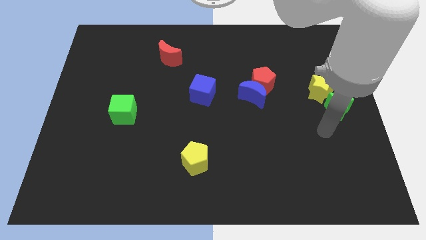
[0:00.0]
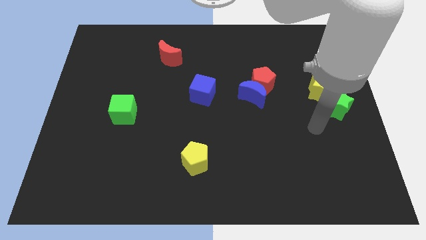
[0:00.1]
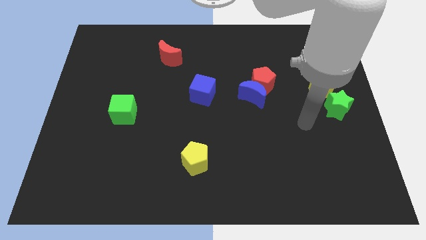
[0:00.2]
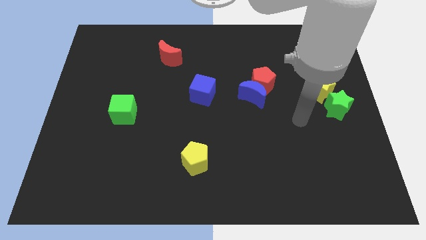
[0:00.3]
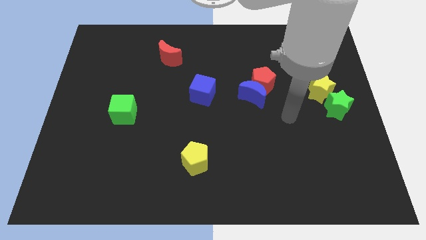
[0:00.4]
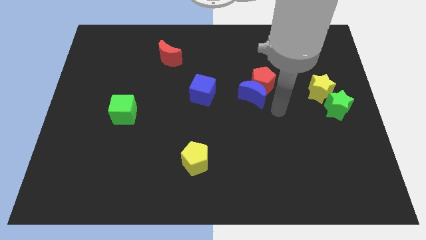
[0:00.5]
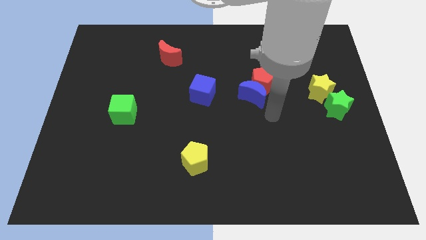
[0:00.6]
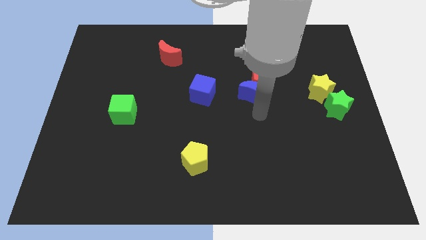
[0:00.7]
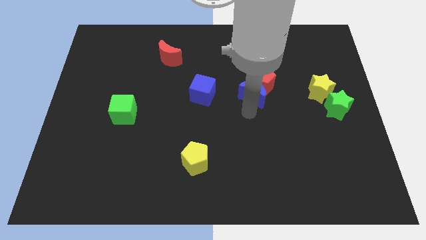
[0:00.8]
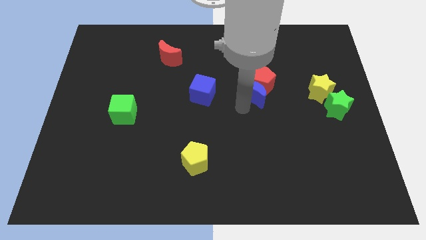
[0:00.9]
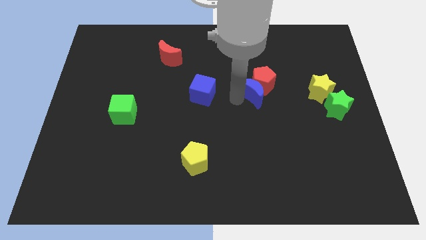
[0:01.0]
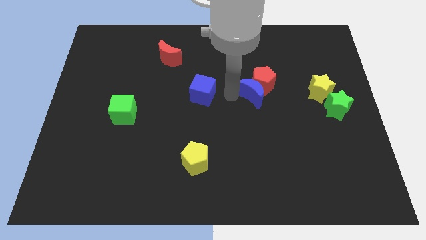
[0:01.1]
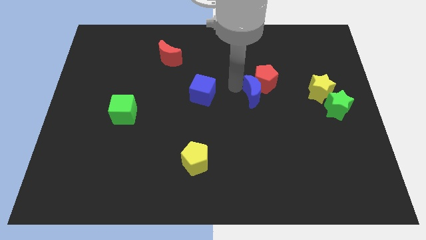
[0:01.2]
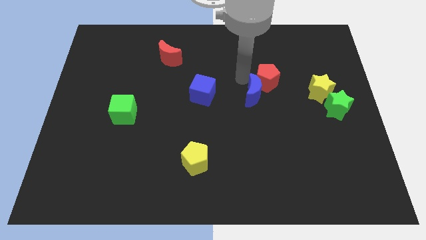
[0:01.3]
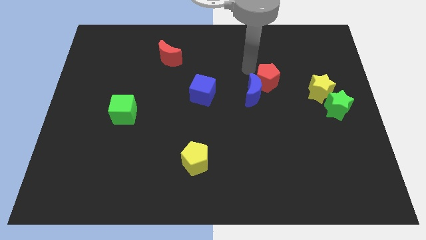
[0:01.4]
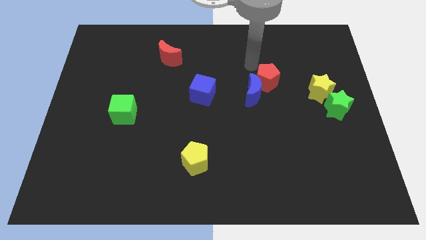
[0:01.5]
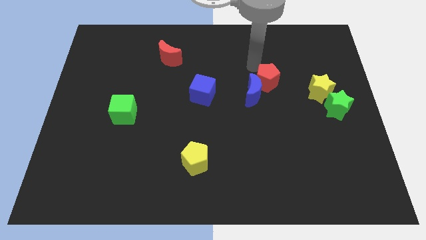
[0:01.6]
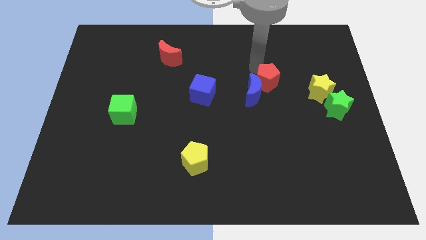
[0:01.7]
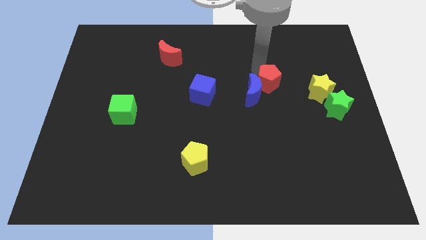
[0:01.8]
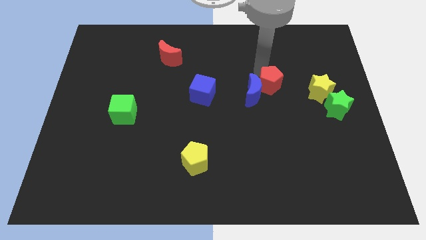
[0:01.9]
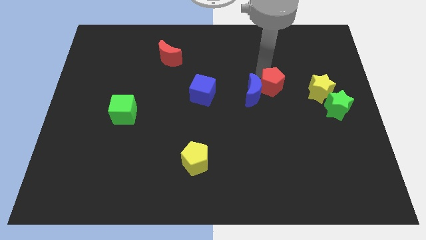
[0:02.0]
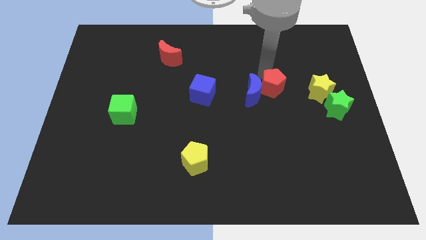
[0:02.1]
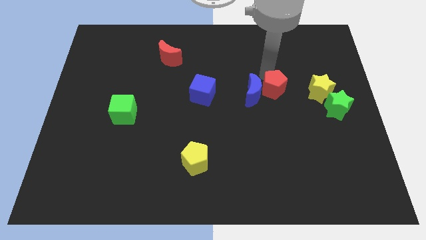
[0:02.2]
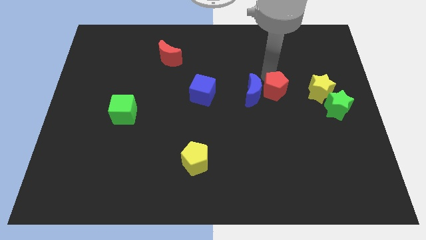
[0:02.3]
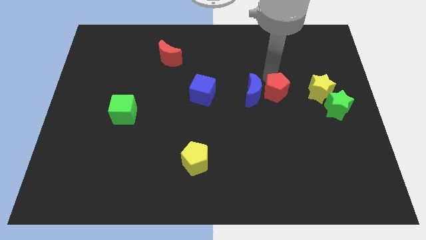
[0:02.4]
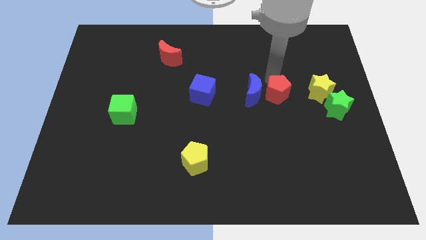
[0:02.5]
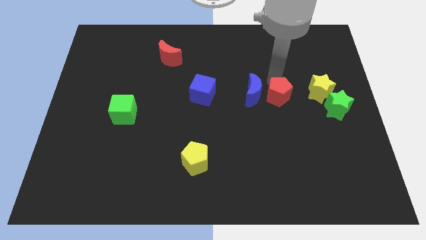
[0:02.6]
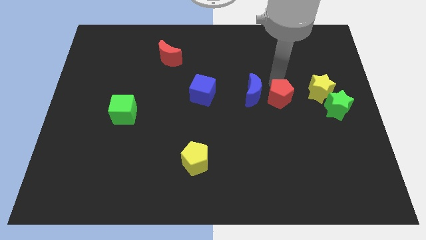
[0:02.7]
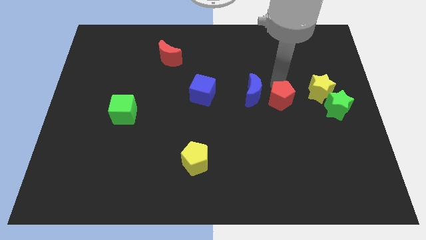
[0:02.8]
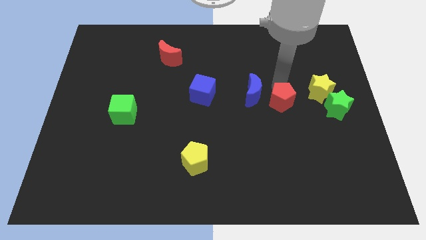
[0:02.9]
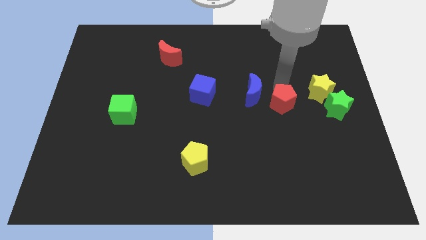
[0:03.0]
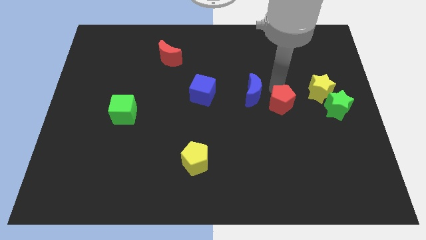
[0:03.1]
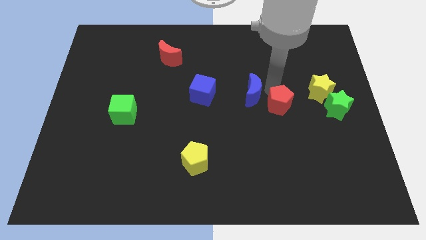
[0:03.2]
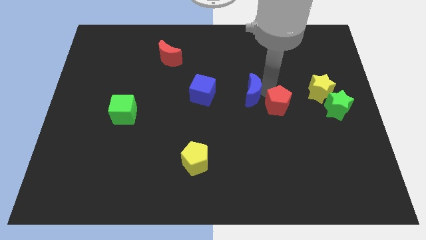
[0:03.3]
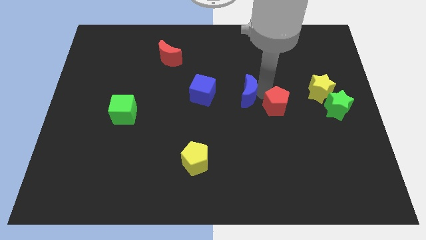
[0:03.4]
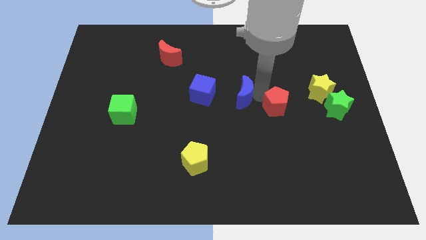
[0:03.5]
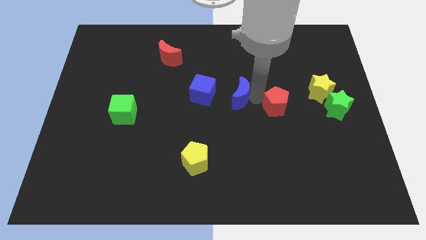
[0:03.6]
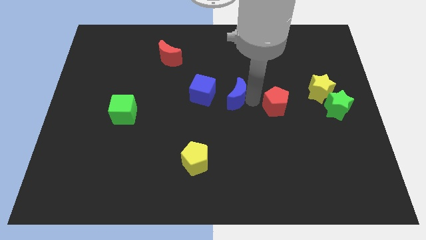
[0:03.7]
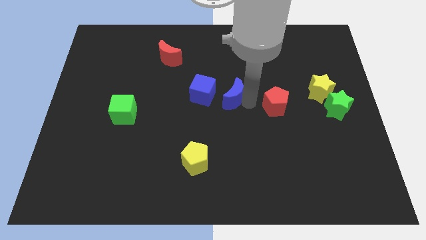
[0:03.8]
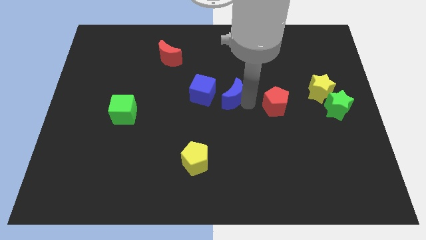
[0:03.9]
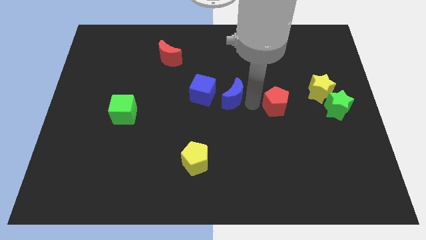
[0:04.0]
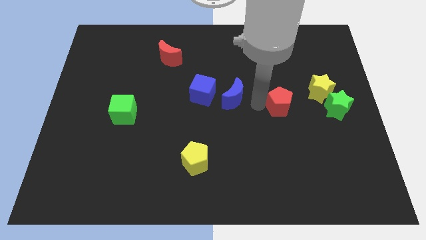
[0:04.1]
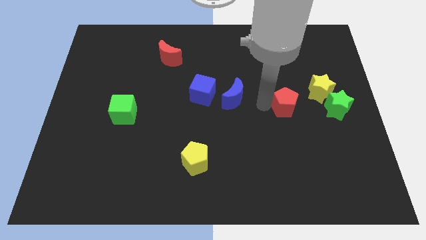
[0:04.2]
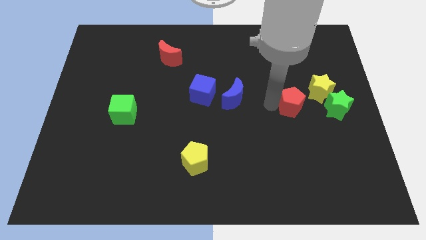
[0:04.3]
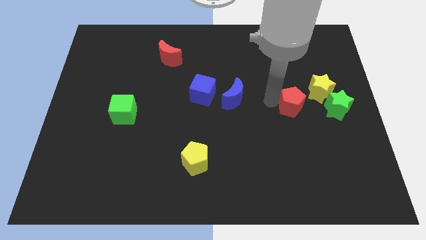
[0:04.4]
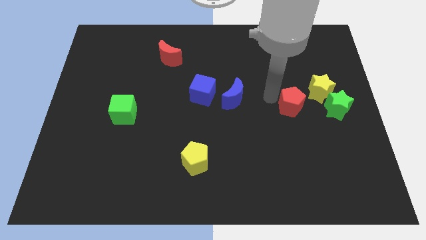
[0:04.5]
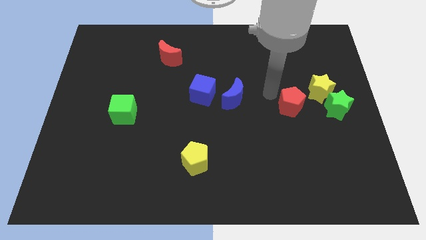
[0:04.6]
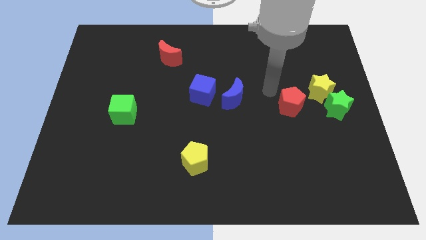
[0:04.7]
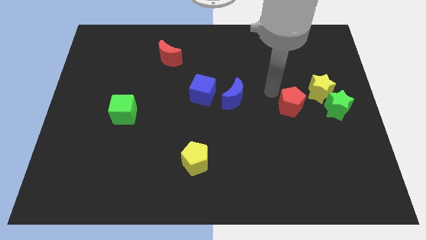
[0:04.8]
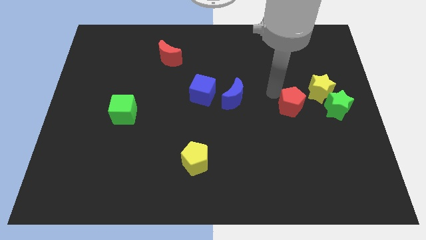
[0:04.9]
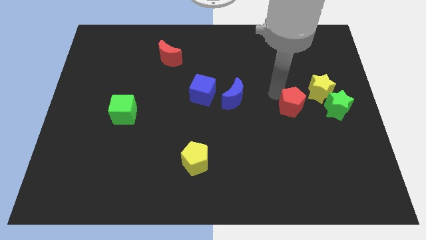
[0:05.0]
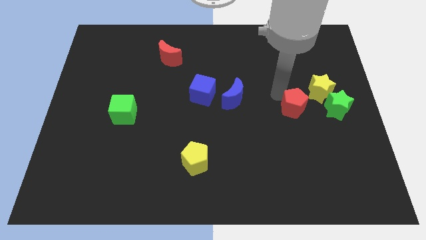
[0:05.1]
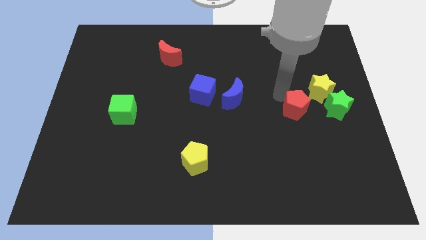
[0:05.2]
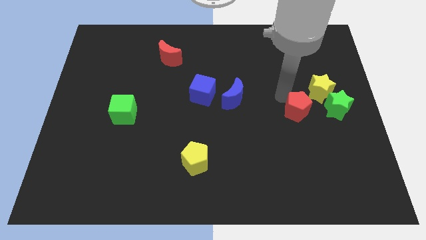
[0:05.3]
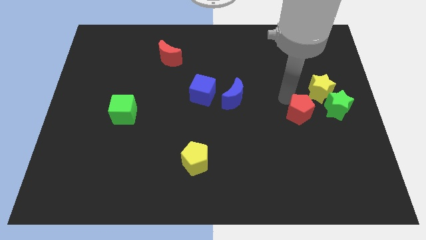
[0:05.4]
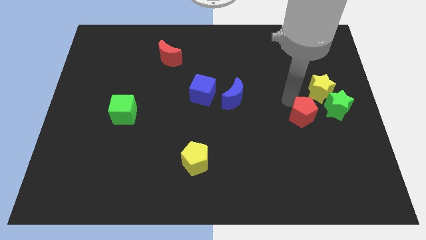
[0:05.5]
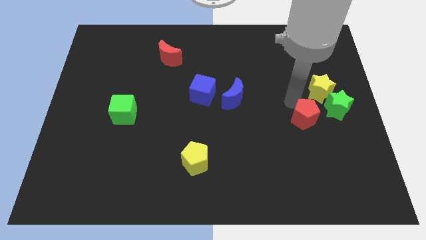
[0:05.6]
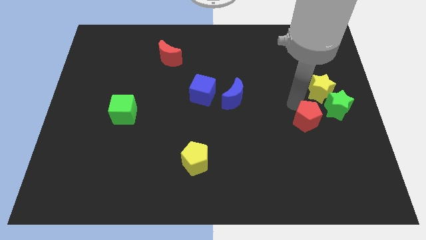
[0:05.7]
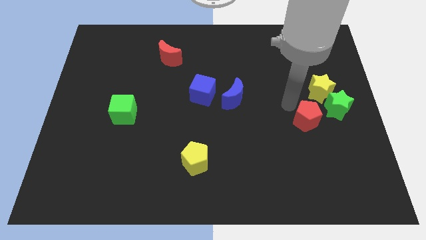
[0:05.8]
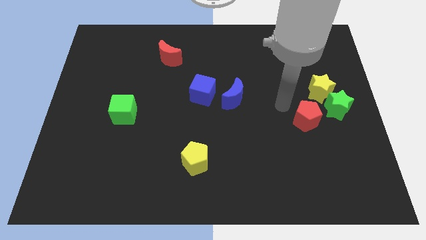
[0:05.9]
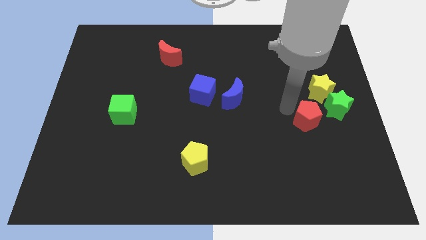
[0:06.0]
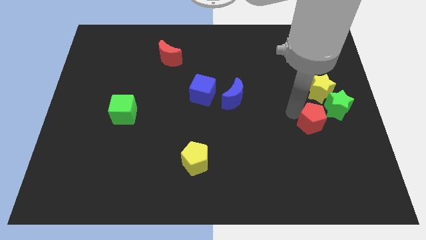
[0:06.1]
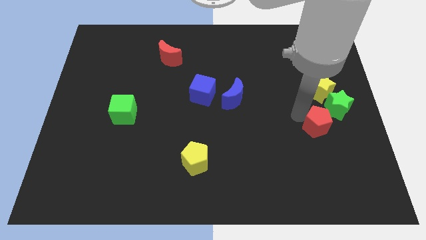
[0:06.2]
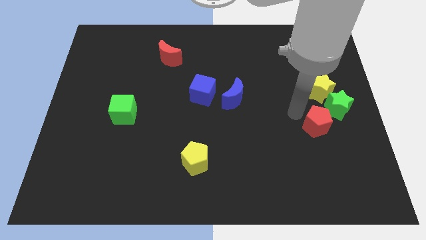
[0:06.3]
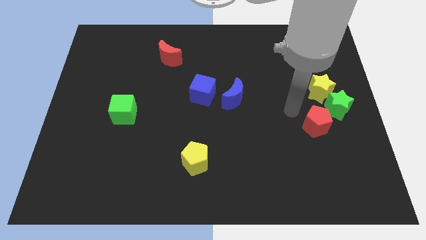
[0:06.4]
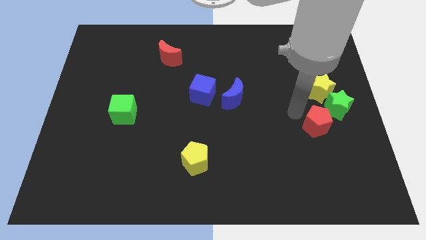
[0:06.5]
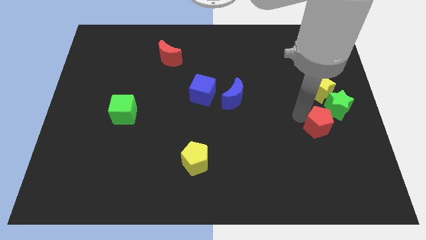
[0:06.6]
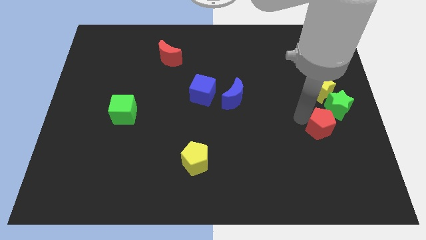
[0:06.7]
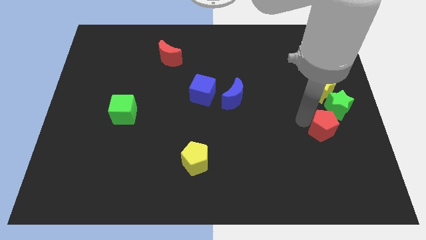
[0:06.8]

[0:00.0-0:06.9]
put the red pentagon to the bottom side of the green star

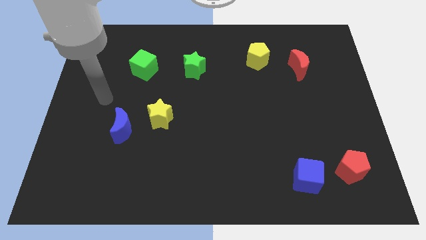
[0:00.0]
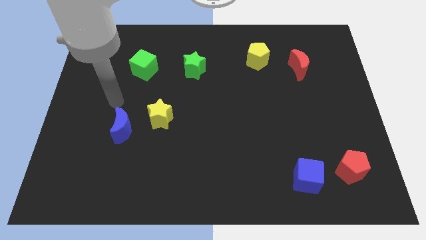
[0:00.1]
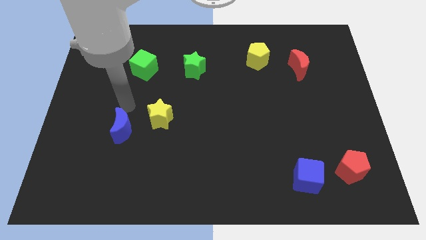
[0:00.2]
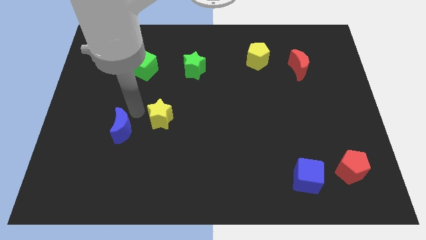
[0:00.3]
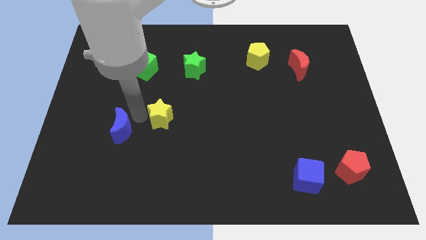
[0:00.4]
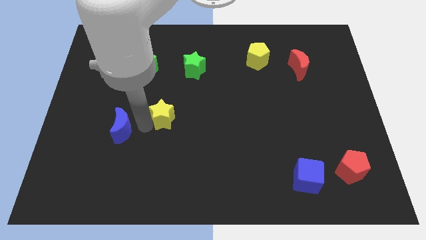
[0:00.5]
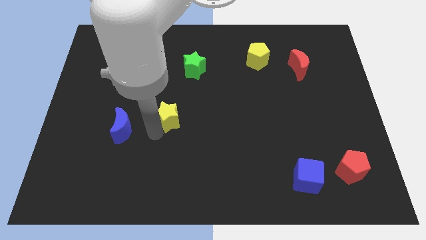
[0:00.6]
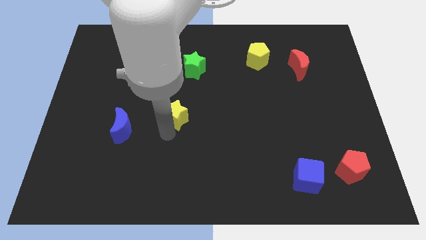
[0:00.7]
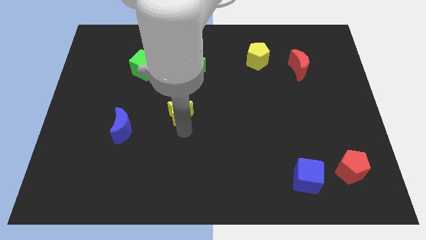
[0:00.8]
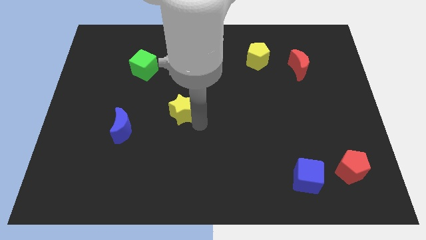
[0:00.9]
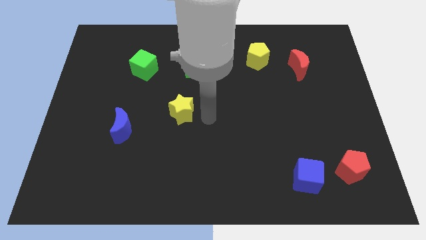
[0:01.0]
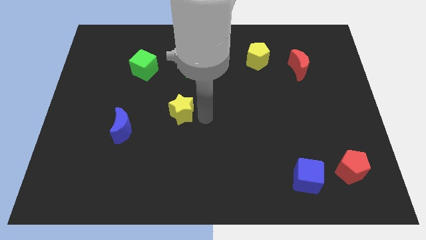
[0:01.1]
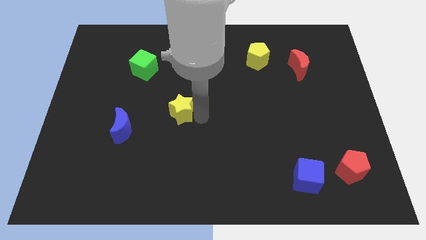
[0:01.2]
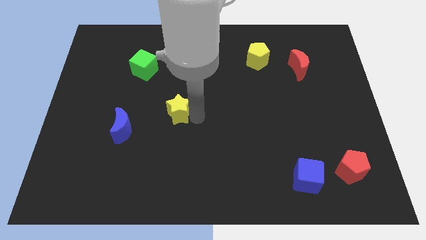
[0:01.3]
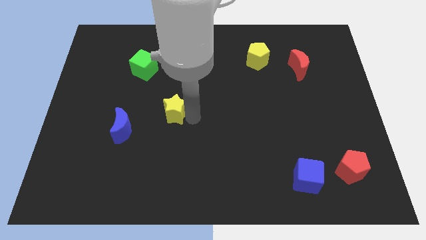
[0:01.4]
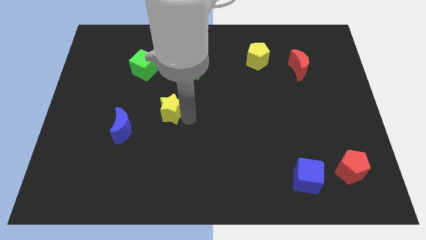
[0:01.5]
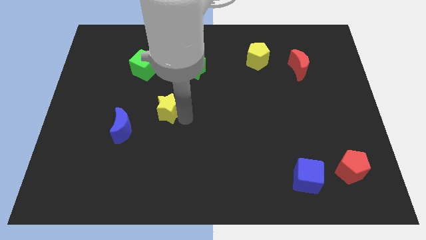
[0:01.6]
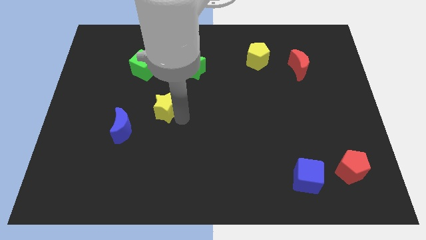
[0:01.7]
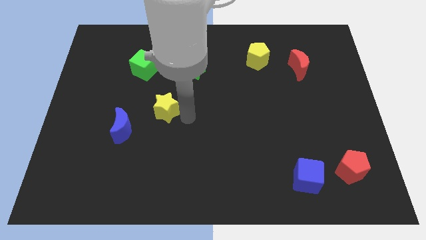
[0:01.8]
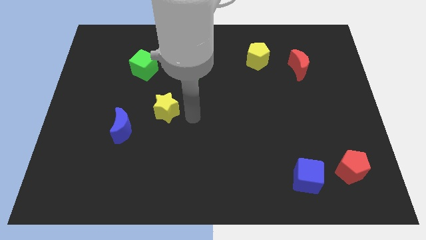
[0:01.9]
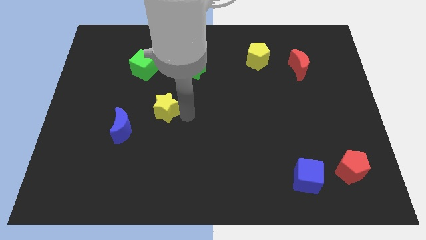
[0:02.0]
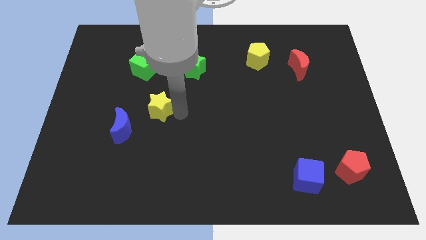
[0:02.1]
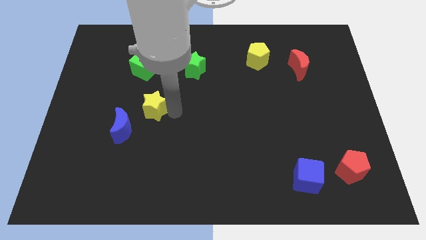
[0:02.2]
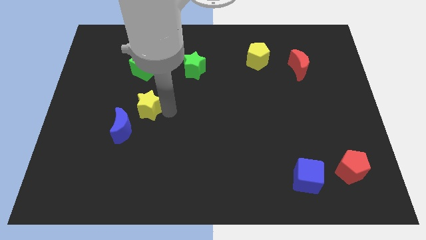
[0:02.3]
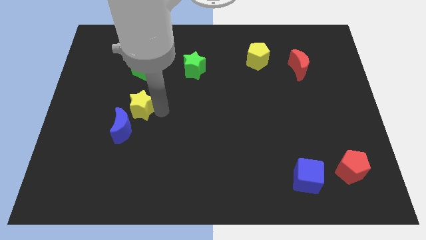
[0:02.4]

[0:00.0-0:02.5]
push the yellow star above the blue moon
